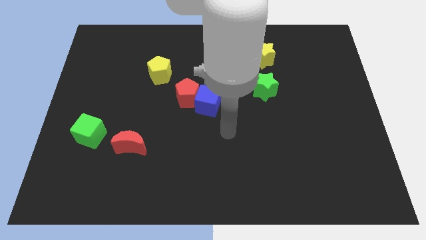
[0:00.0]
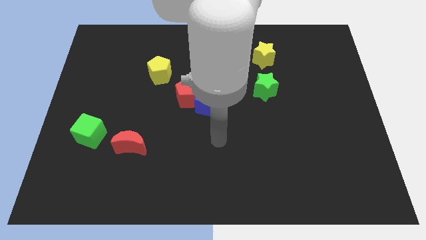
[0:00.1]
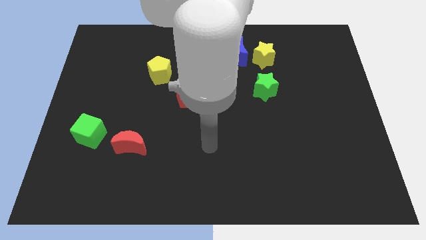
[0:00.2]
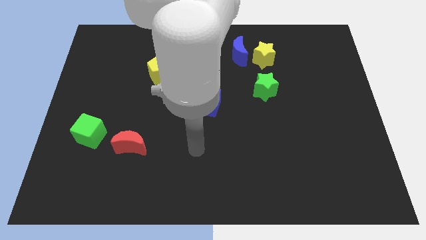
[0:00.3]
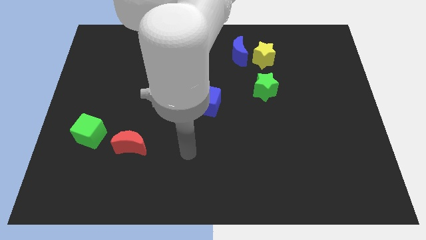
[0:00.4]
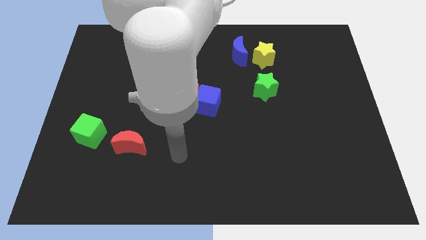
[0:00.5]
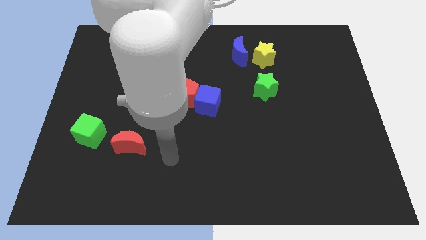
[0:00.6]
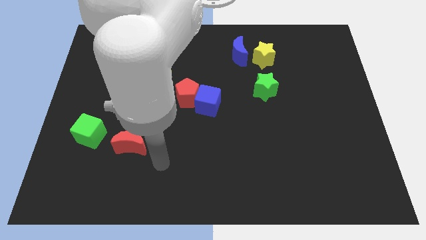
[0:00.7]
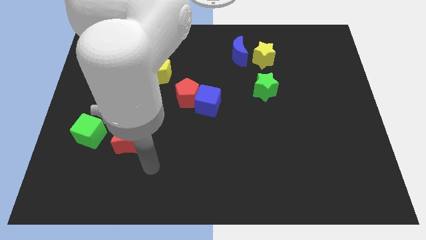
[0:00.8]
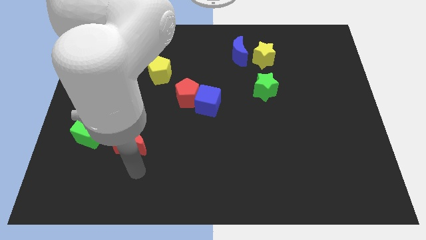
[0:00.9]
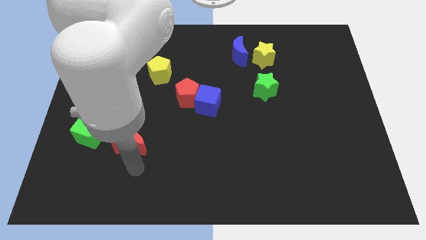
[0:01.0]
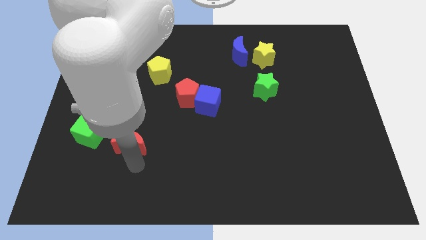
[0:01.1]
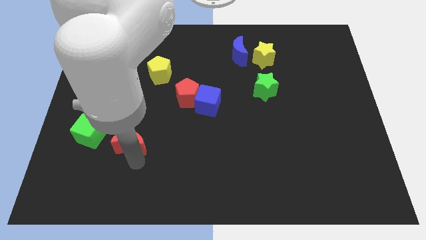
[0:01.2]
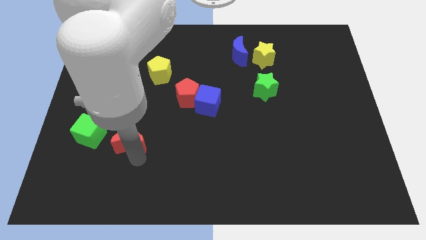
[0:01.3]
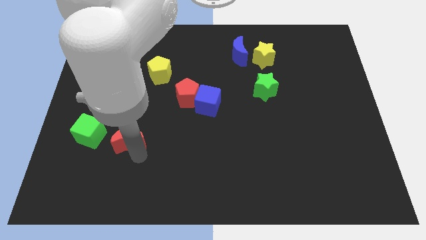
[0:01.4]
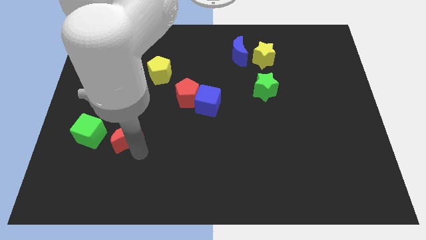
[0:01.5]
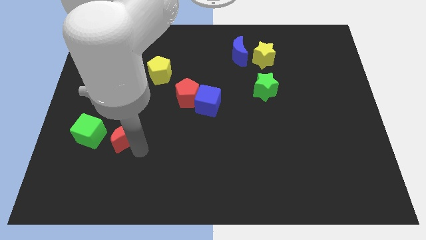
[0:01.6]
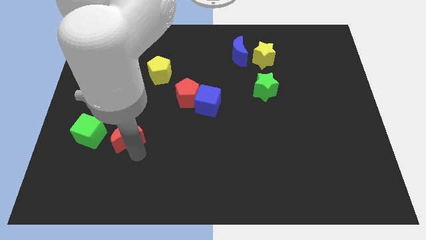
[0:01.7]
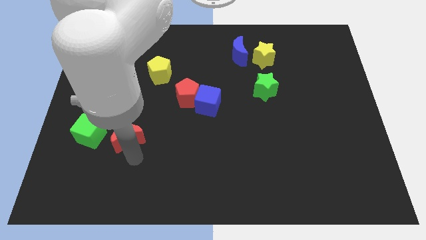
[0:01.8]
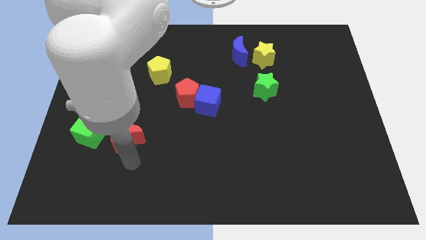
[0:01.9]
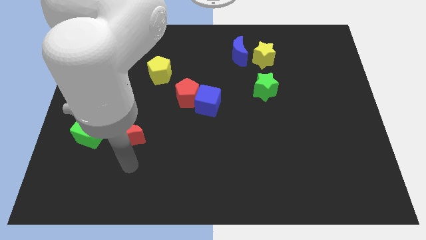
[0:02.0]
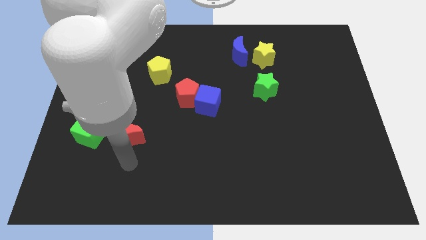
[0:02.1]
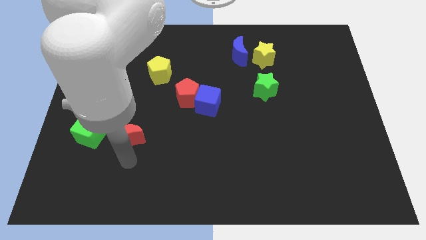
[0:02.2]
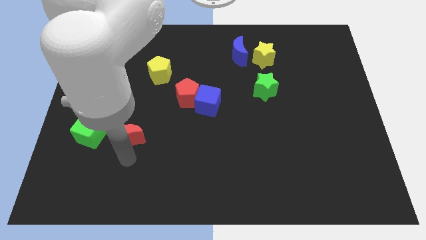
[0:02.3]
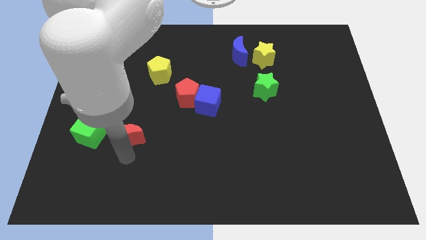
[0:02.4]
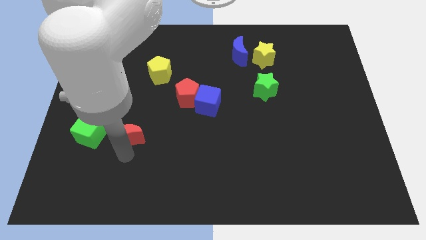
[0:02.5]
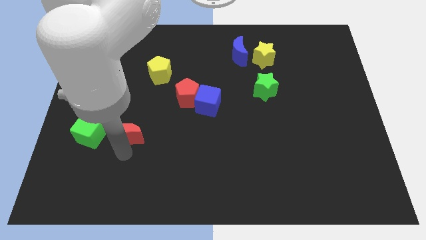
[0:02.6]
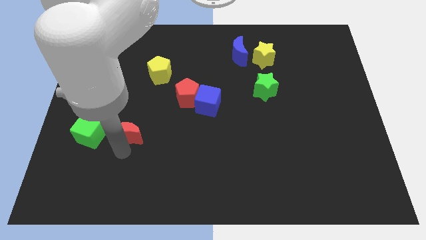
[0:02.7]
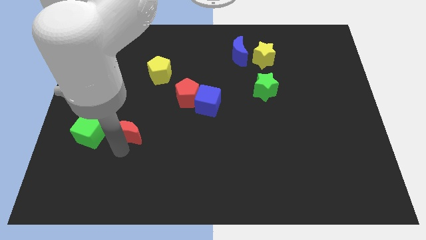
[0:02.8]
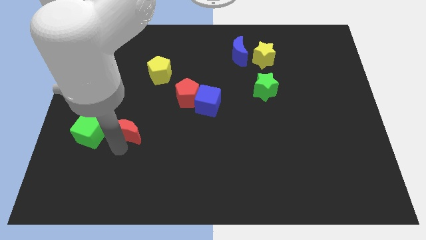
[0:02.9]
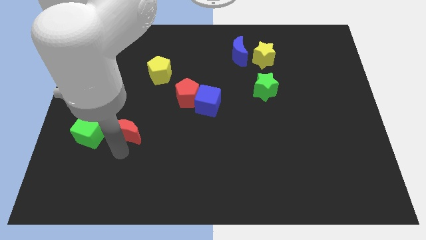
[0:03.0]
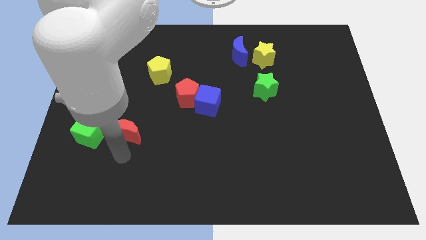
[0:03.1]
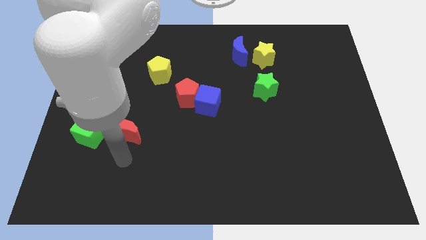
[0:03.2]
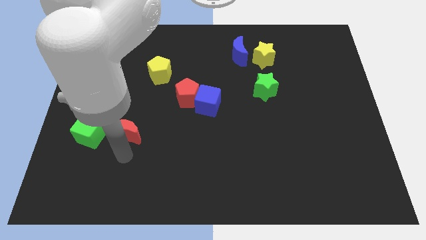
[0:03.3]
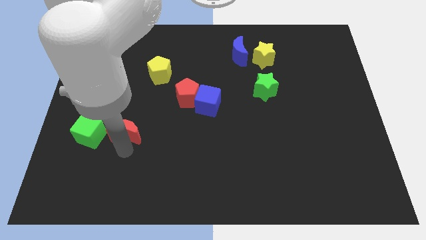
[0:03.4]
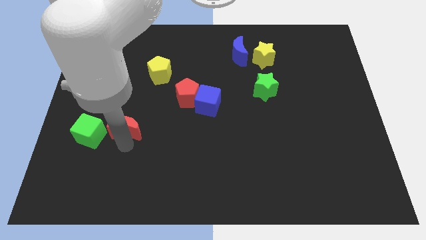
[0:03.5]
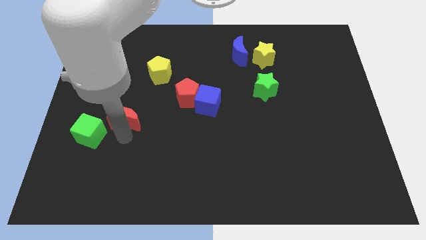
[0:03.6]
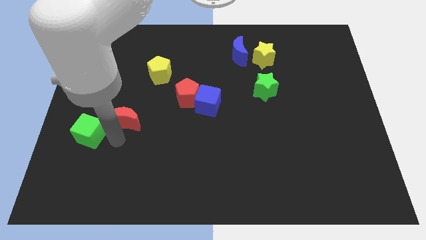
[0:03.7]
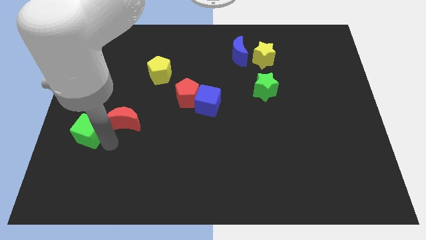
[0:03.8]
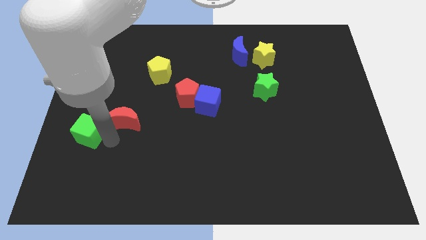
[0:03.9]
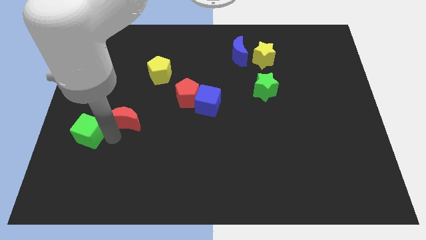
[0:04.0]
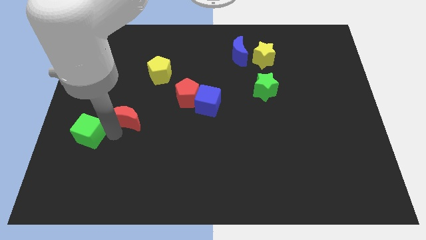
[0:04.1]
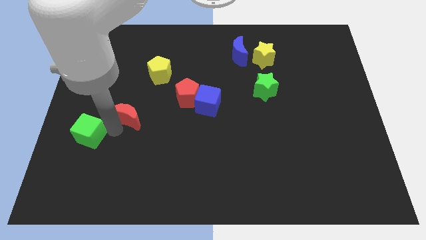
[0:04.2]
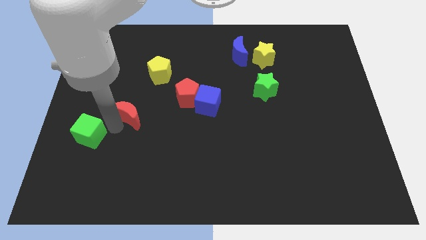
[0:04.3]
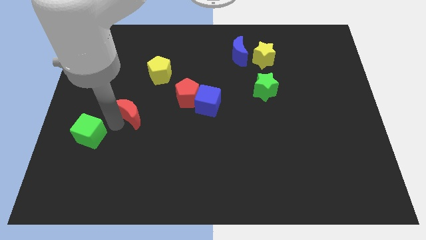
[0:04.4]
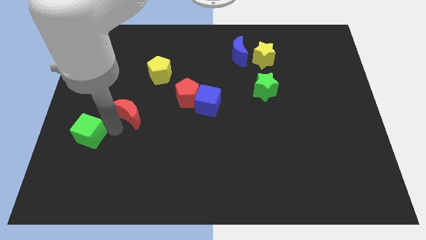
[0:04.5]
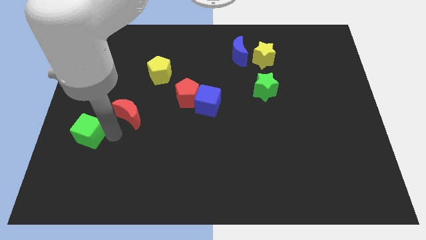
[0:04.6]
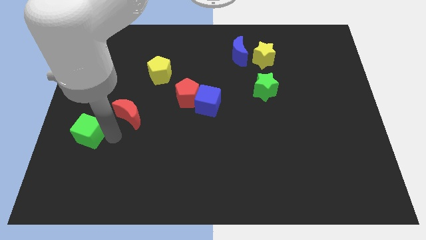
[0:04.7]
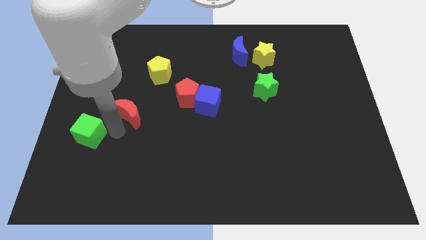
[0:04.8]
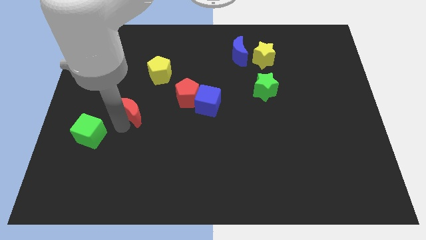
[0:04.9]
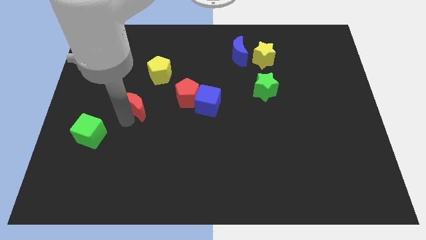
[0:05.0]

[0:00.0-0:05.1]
push the red moon to the left of the red pentagon

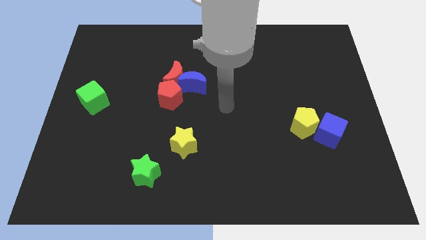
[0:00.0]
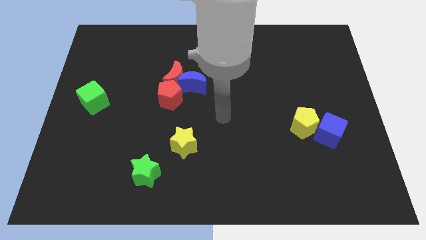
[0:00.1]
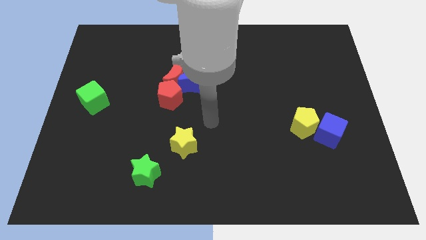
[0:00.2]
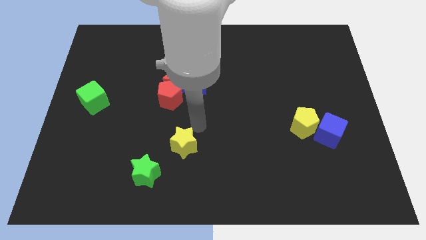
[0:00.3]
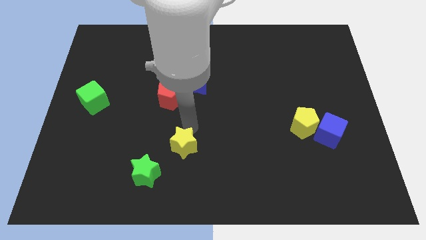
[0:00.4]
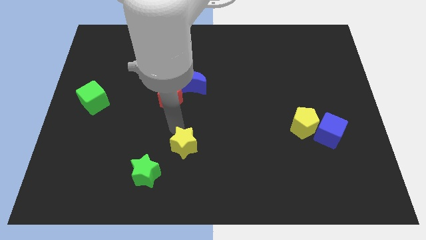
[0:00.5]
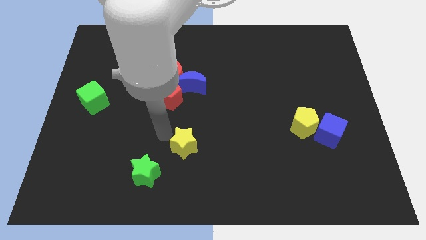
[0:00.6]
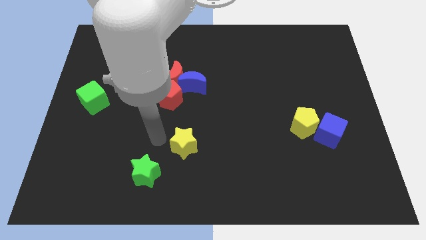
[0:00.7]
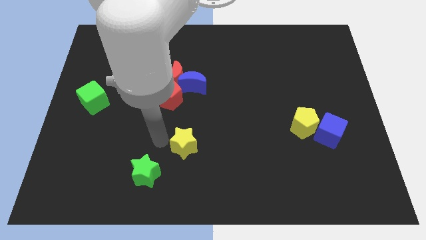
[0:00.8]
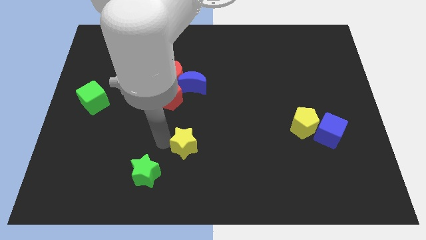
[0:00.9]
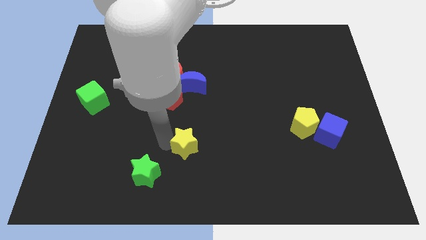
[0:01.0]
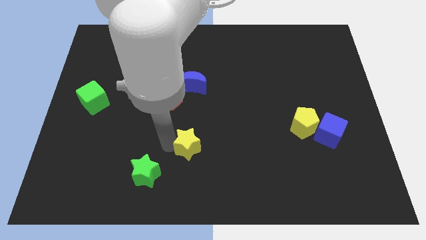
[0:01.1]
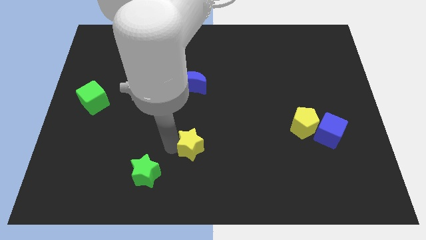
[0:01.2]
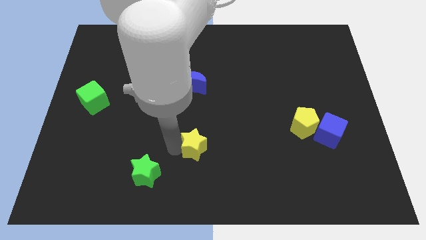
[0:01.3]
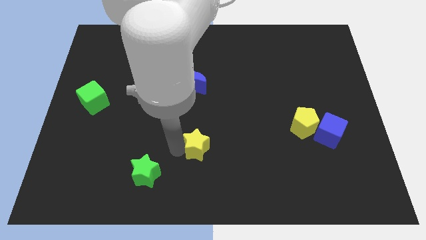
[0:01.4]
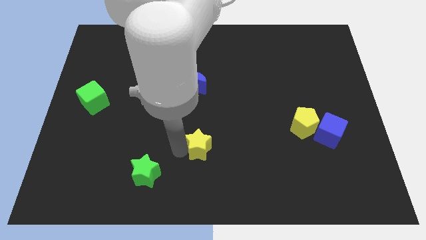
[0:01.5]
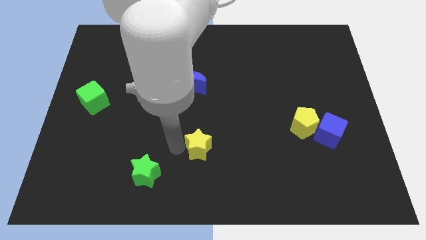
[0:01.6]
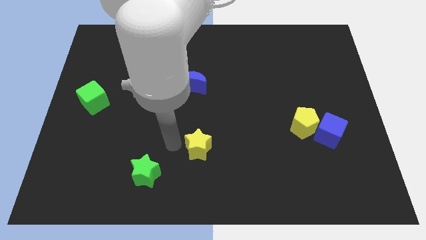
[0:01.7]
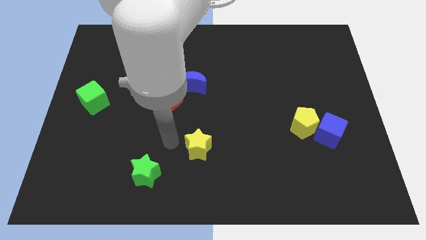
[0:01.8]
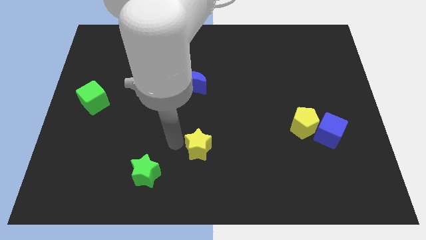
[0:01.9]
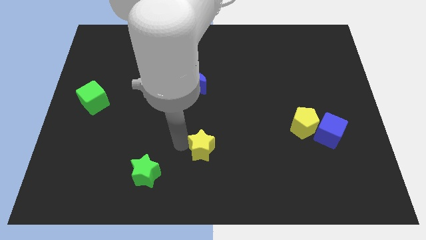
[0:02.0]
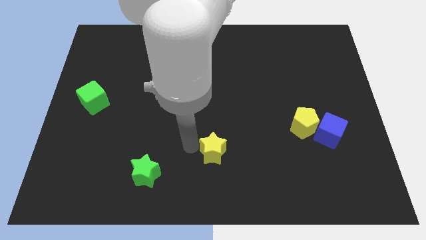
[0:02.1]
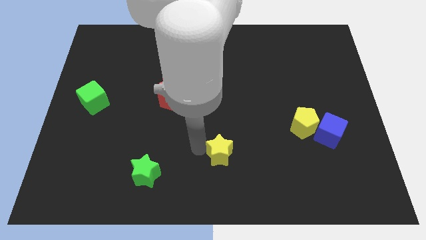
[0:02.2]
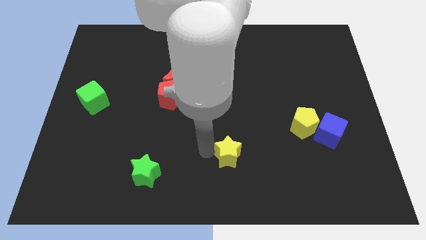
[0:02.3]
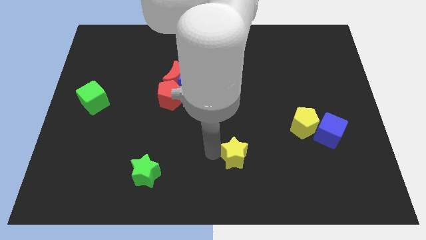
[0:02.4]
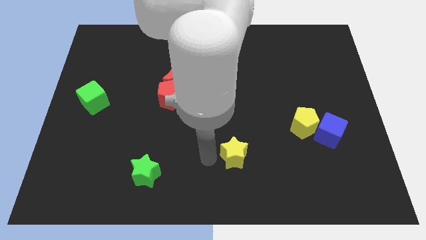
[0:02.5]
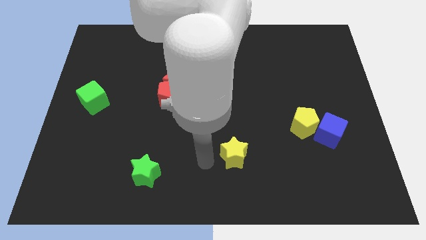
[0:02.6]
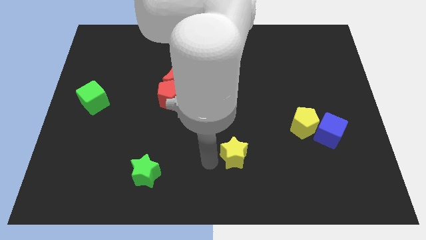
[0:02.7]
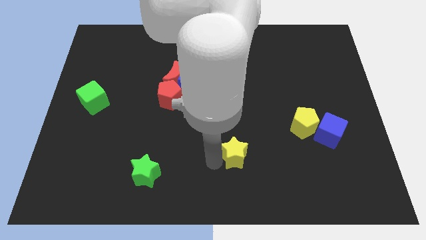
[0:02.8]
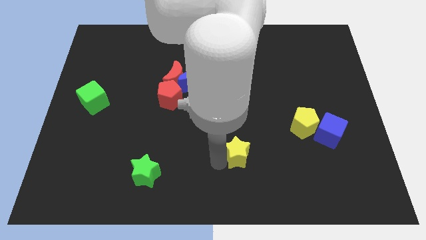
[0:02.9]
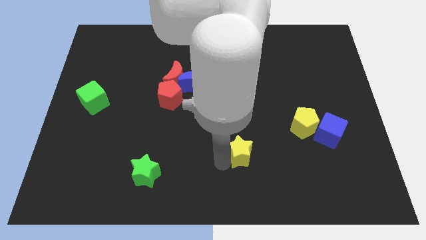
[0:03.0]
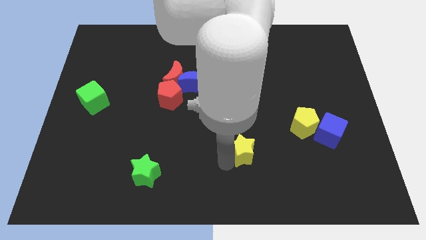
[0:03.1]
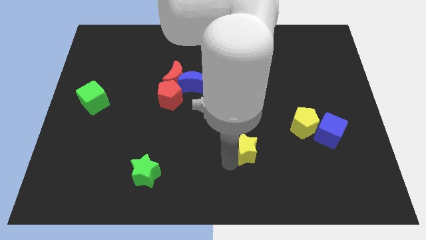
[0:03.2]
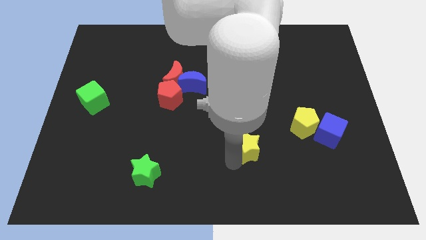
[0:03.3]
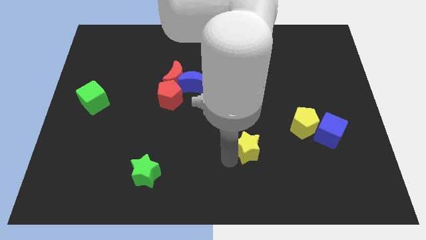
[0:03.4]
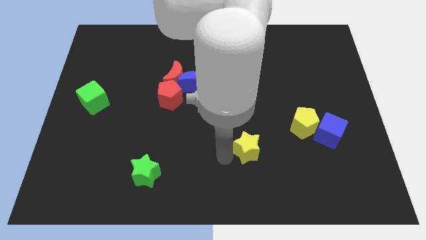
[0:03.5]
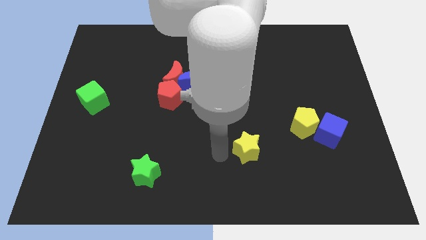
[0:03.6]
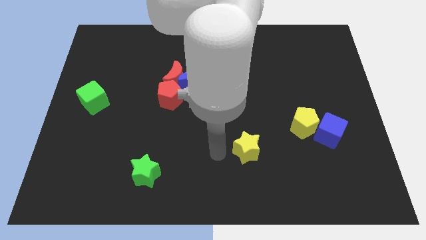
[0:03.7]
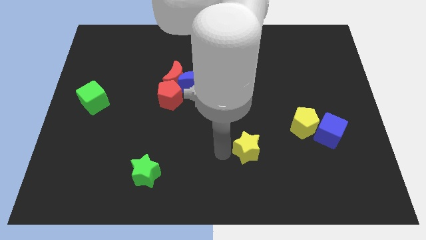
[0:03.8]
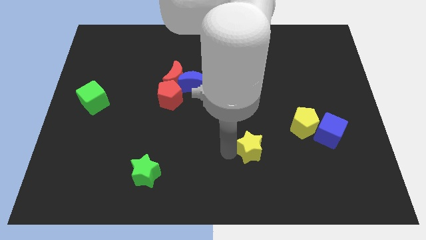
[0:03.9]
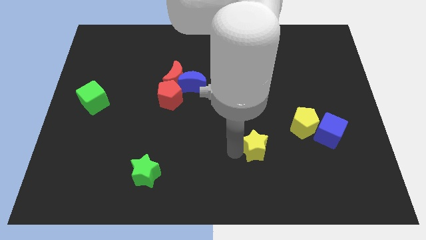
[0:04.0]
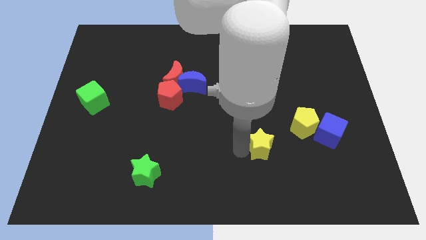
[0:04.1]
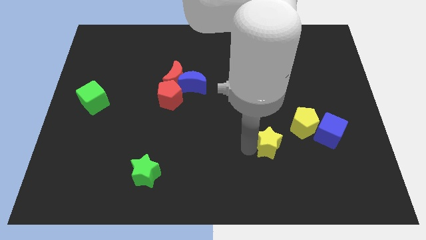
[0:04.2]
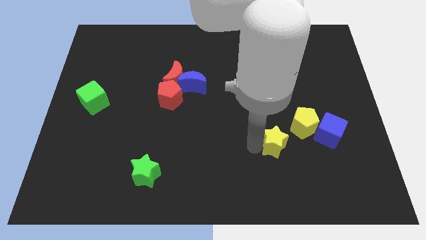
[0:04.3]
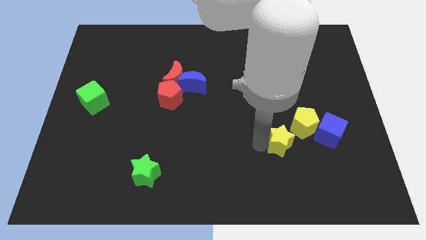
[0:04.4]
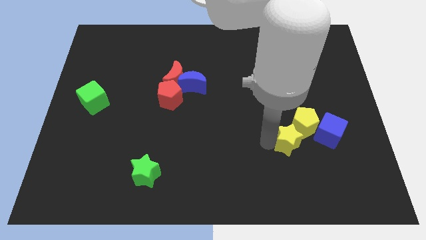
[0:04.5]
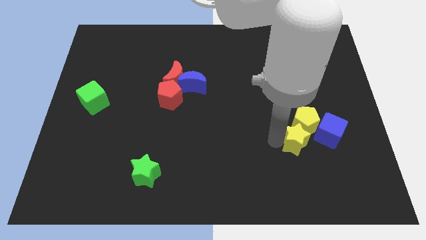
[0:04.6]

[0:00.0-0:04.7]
put the yellow star diagonally down and to the left of the blue cube
